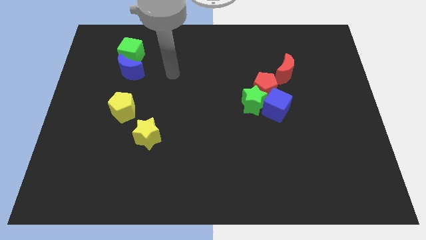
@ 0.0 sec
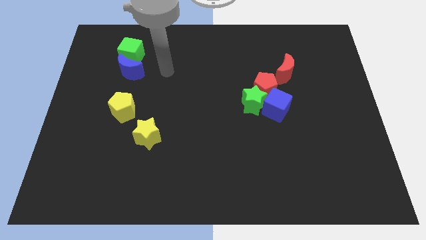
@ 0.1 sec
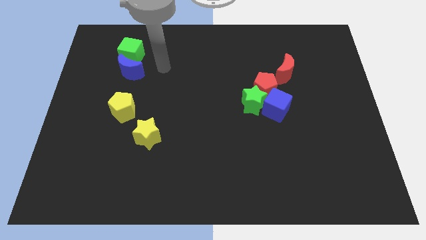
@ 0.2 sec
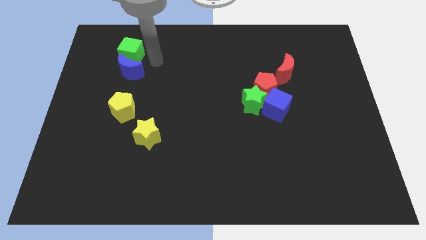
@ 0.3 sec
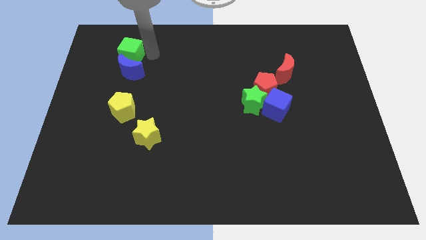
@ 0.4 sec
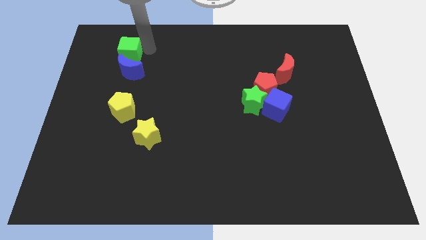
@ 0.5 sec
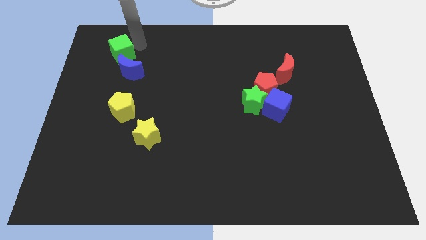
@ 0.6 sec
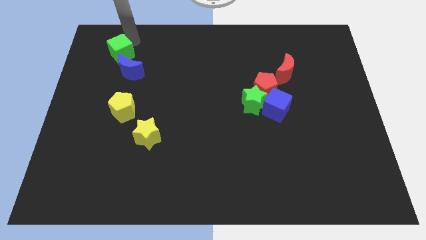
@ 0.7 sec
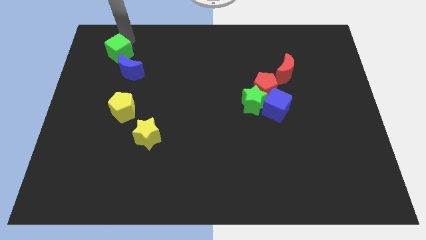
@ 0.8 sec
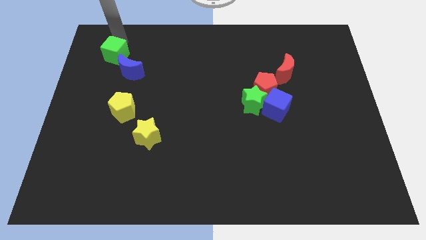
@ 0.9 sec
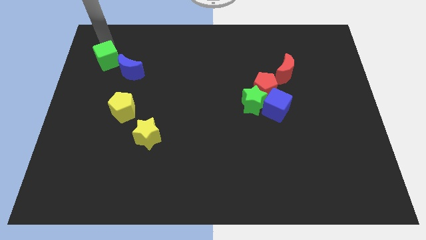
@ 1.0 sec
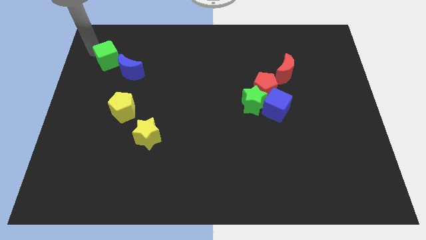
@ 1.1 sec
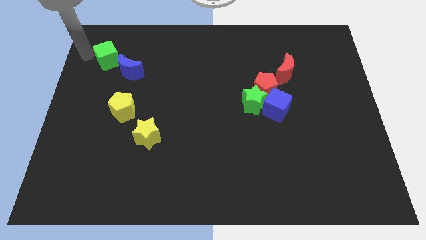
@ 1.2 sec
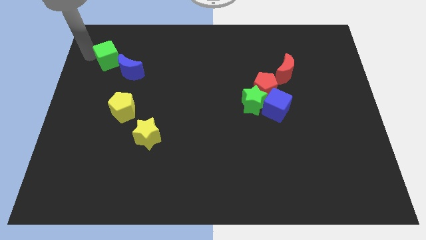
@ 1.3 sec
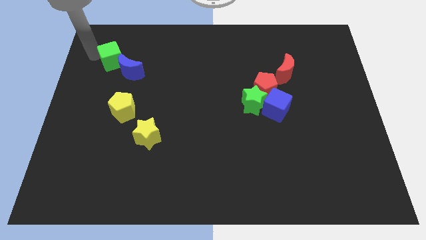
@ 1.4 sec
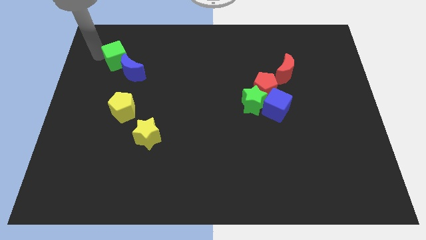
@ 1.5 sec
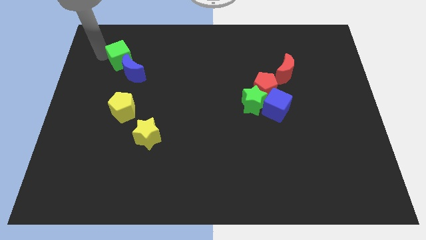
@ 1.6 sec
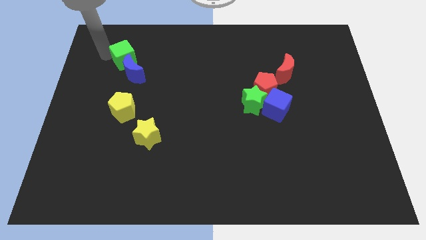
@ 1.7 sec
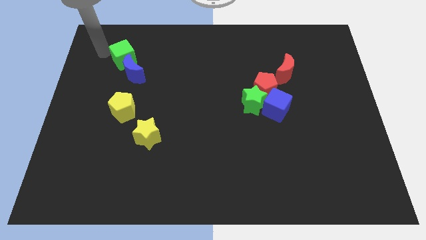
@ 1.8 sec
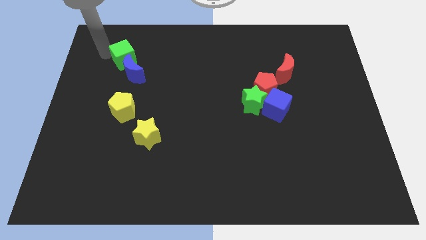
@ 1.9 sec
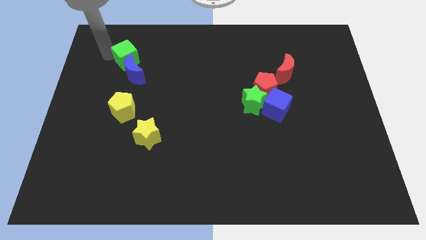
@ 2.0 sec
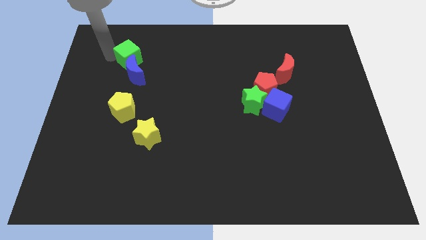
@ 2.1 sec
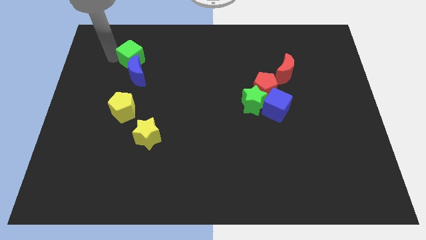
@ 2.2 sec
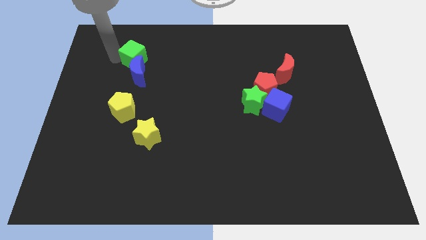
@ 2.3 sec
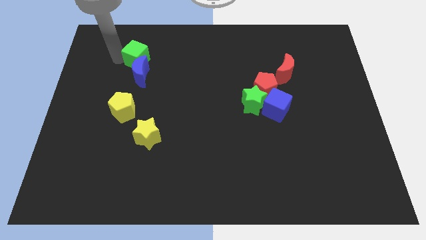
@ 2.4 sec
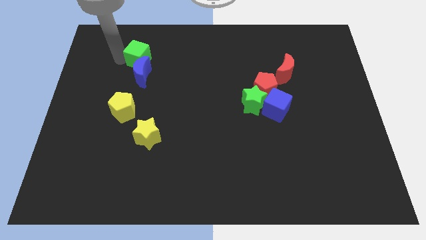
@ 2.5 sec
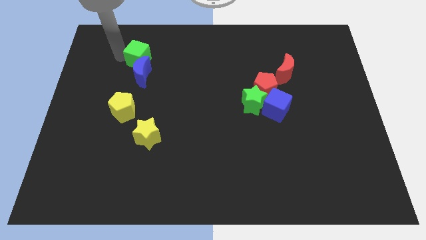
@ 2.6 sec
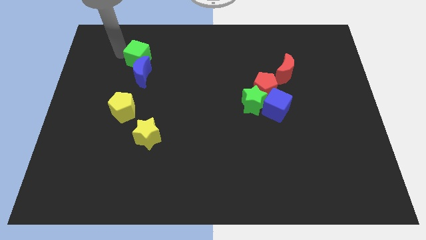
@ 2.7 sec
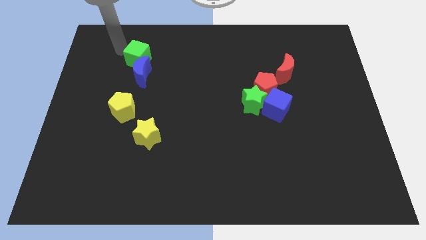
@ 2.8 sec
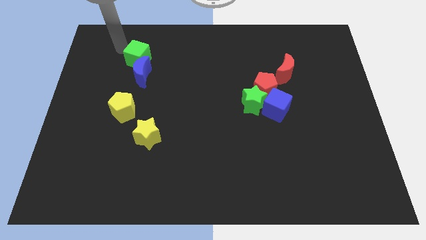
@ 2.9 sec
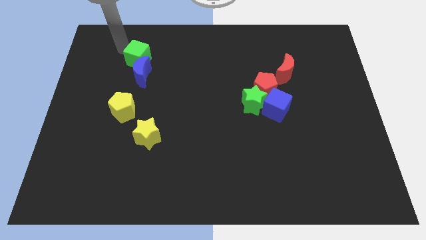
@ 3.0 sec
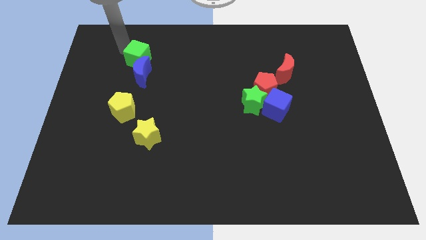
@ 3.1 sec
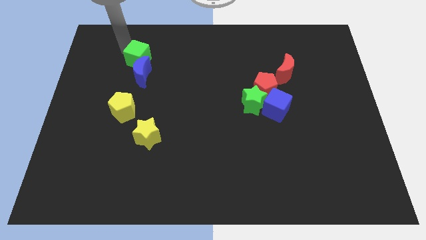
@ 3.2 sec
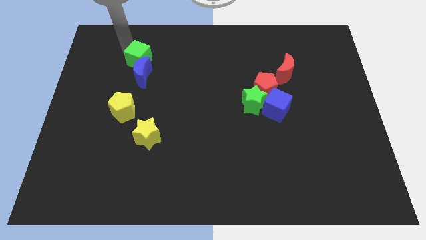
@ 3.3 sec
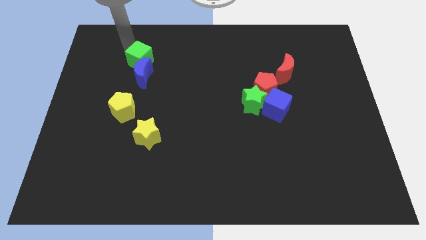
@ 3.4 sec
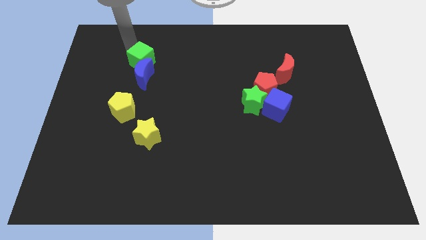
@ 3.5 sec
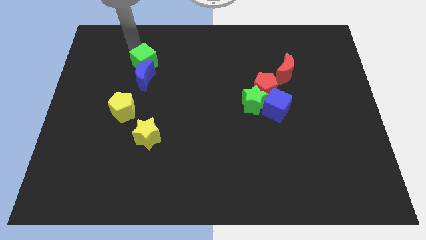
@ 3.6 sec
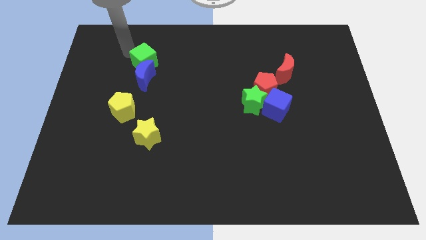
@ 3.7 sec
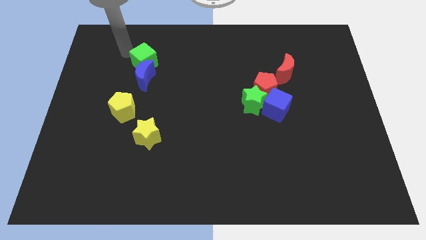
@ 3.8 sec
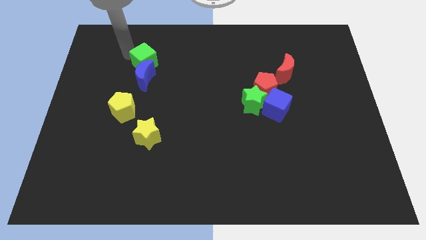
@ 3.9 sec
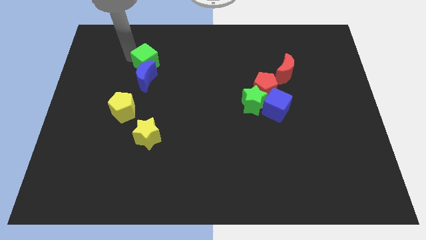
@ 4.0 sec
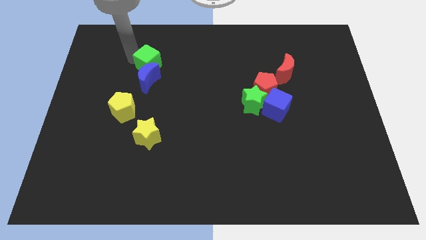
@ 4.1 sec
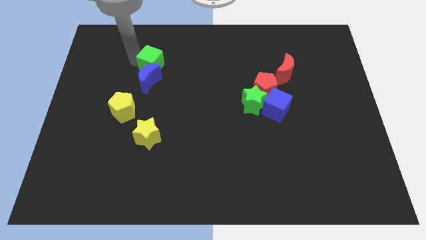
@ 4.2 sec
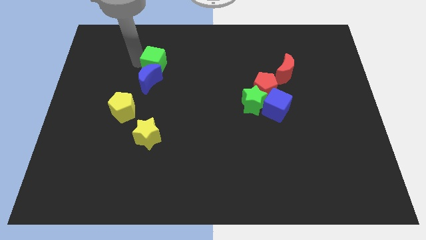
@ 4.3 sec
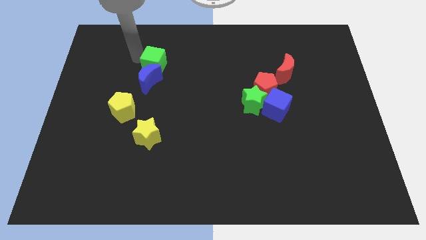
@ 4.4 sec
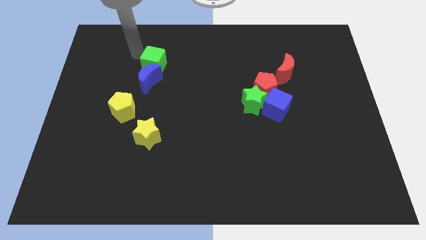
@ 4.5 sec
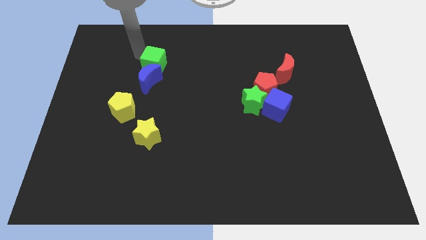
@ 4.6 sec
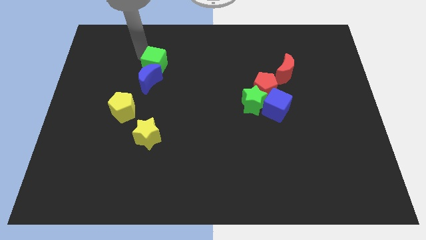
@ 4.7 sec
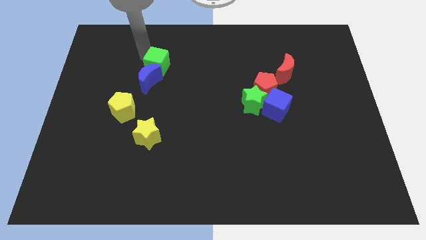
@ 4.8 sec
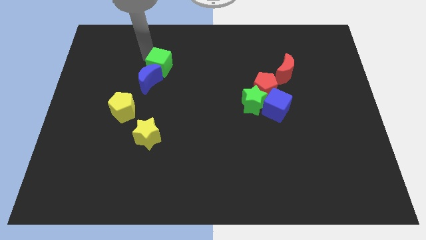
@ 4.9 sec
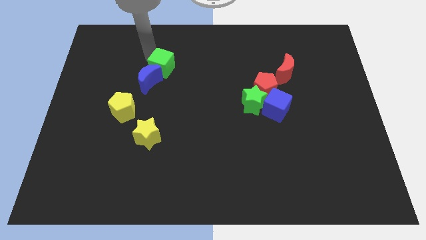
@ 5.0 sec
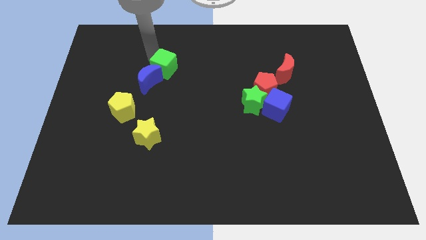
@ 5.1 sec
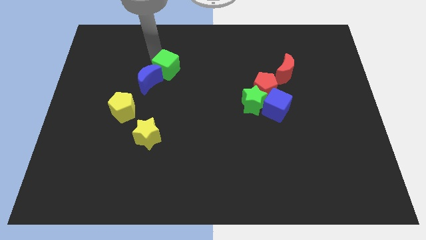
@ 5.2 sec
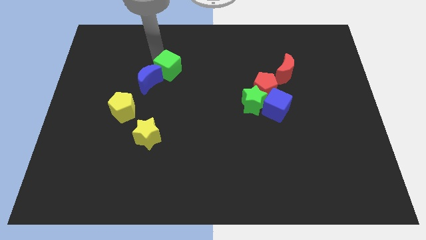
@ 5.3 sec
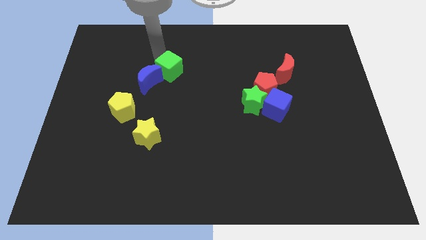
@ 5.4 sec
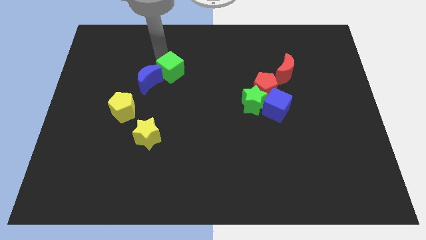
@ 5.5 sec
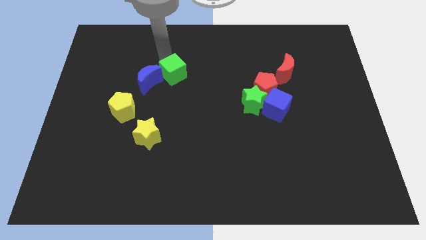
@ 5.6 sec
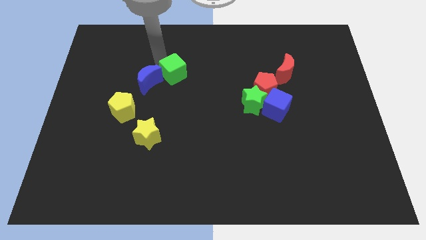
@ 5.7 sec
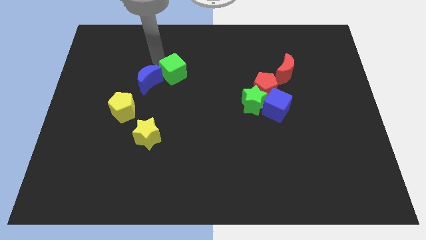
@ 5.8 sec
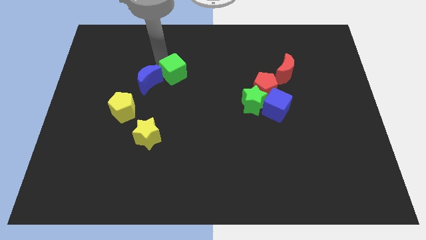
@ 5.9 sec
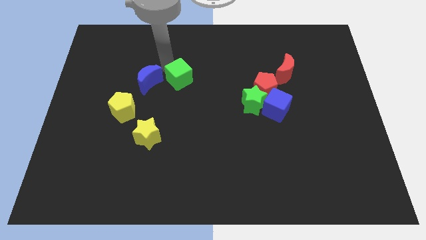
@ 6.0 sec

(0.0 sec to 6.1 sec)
slide the green cube to the middle

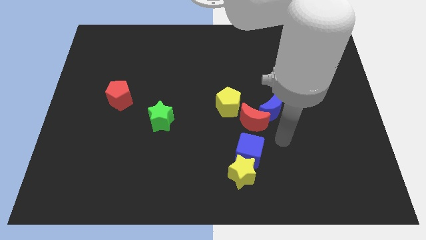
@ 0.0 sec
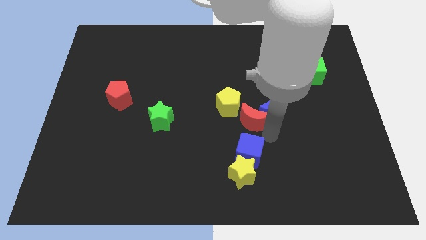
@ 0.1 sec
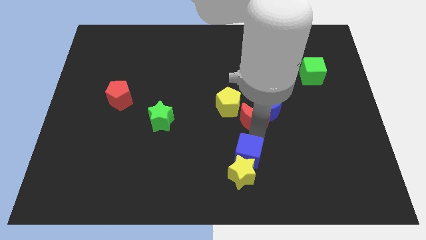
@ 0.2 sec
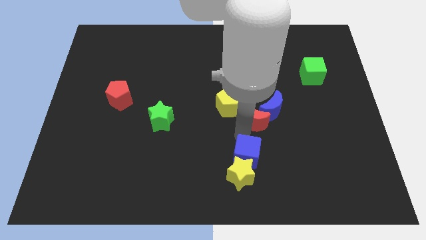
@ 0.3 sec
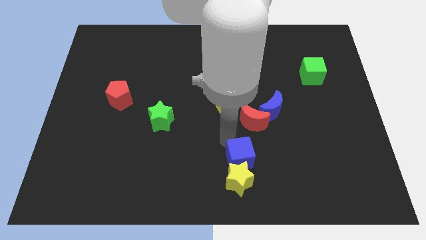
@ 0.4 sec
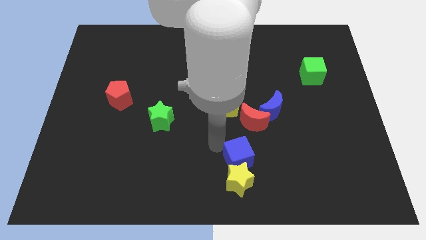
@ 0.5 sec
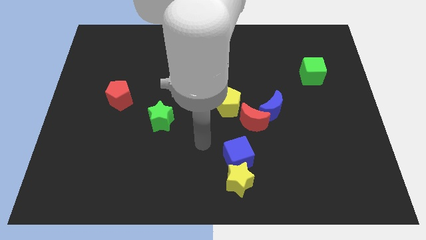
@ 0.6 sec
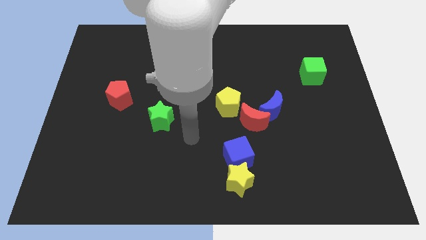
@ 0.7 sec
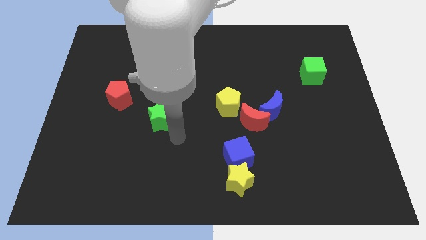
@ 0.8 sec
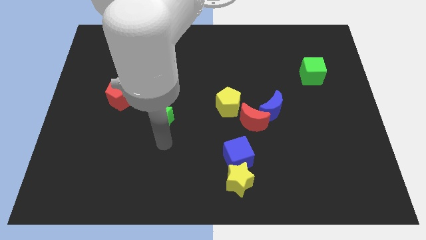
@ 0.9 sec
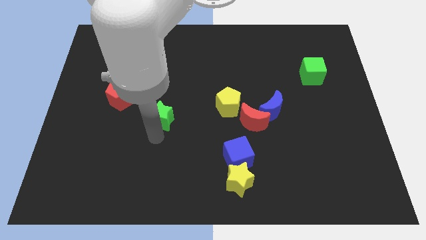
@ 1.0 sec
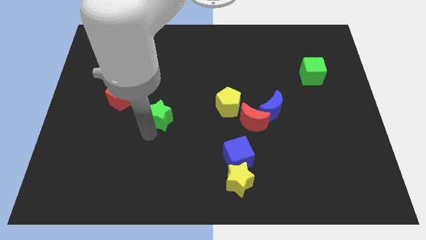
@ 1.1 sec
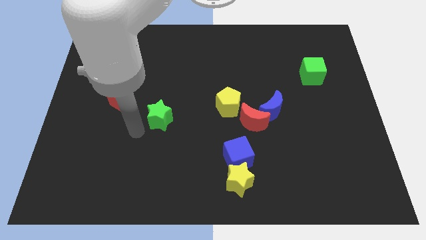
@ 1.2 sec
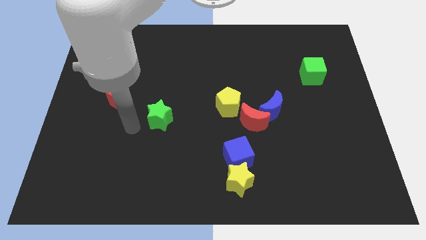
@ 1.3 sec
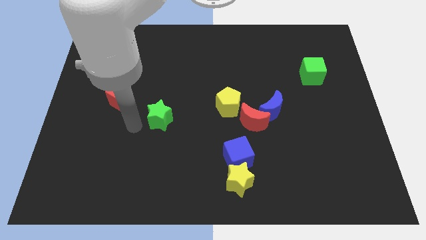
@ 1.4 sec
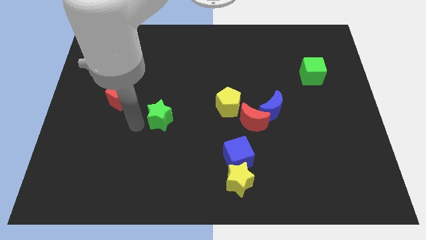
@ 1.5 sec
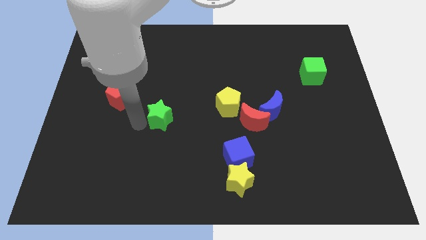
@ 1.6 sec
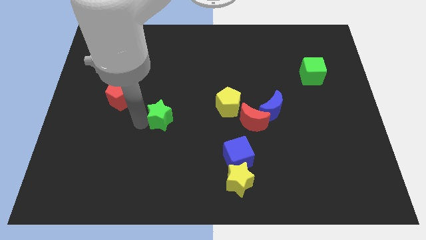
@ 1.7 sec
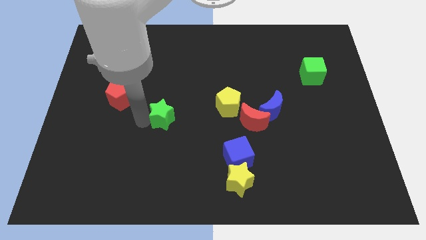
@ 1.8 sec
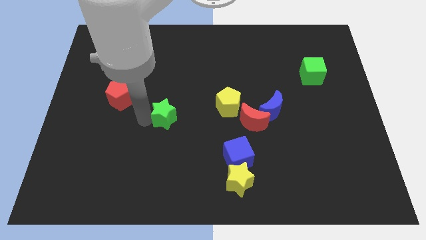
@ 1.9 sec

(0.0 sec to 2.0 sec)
move the green star to the middle
